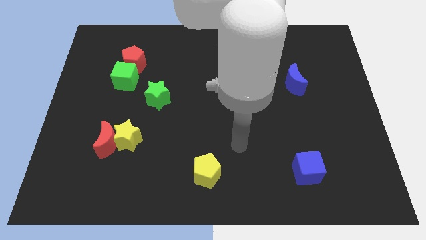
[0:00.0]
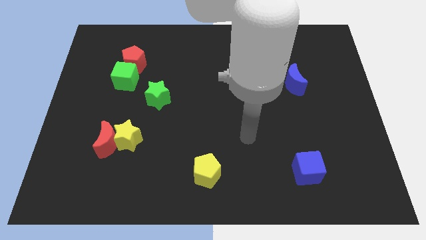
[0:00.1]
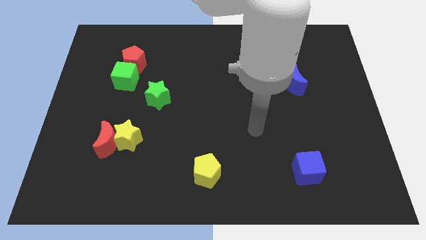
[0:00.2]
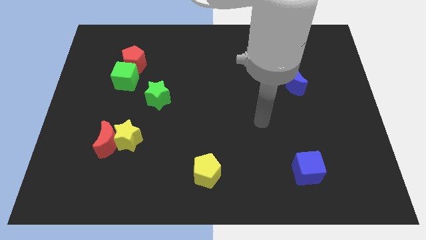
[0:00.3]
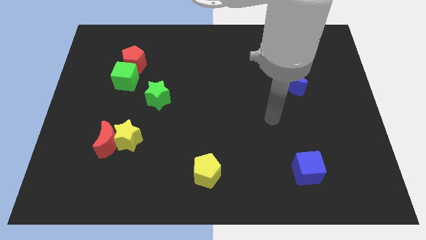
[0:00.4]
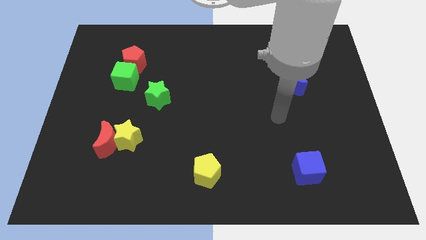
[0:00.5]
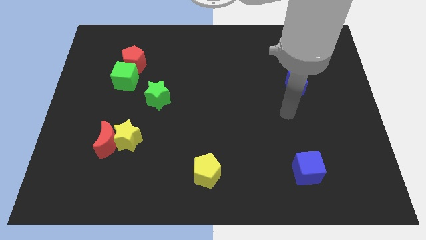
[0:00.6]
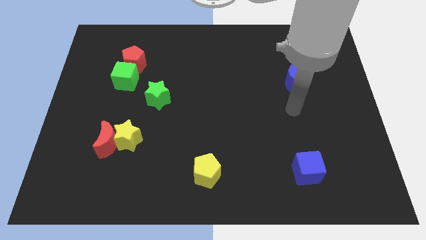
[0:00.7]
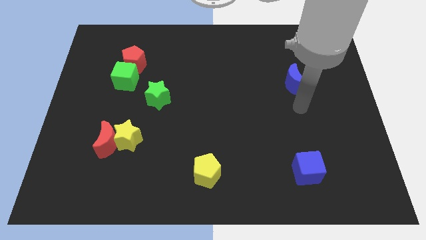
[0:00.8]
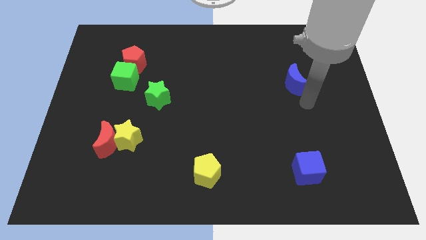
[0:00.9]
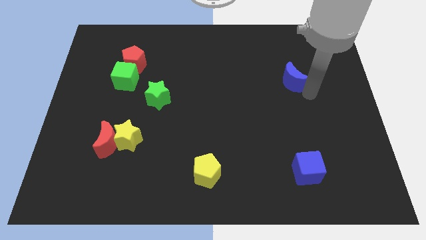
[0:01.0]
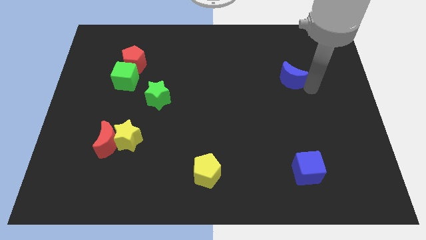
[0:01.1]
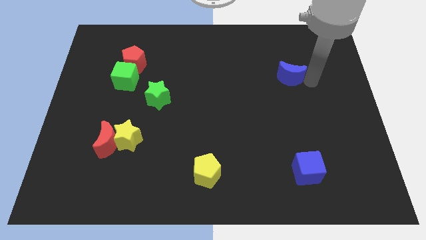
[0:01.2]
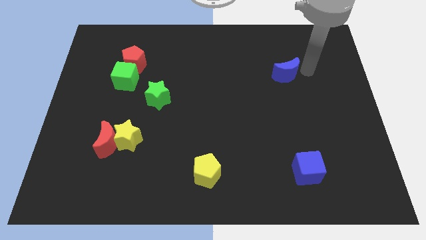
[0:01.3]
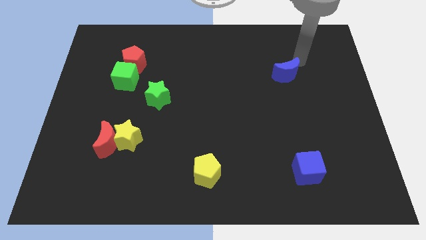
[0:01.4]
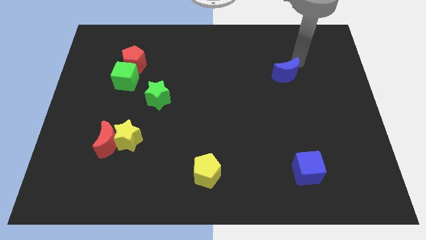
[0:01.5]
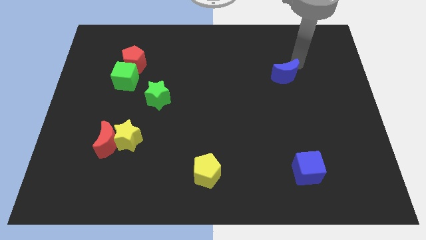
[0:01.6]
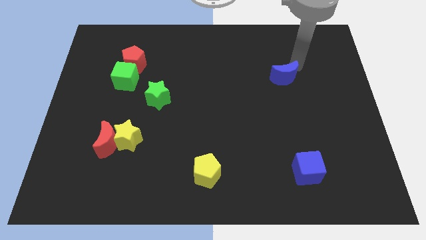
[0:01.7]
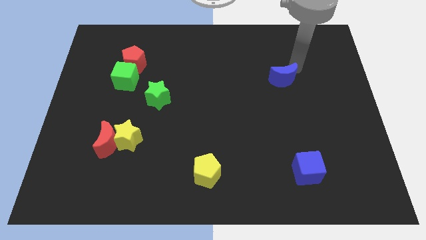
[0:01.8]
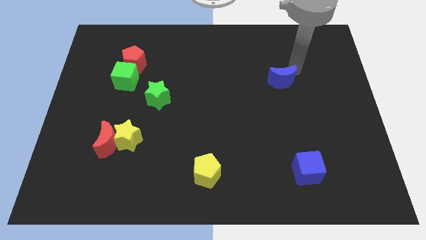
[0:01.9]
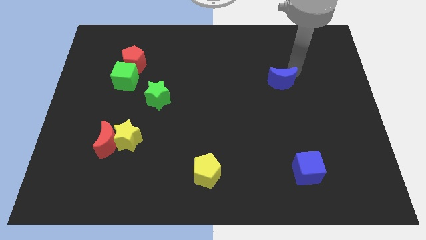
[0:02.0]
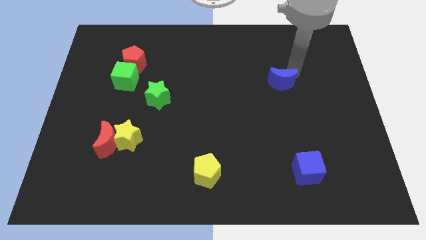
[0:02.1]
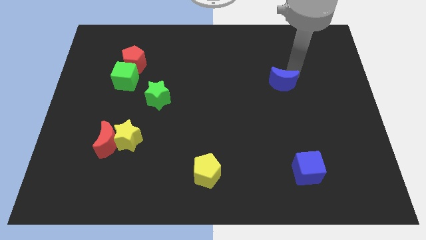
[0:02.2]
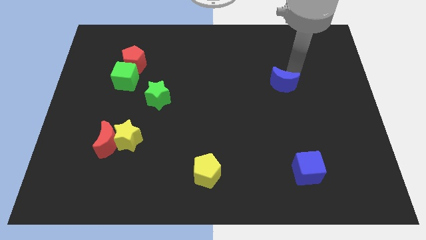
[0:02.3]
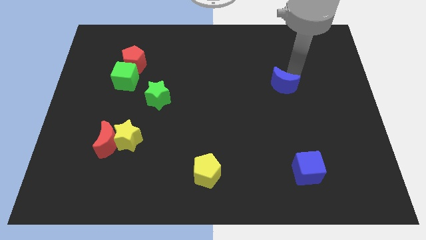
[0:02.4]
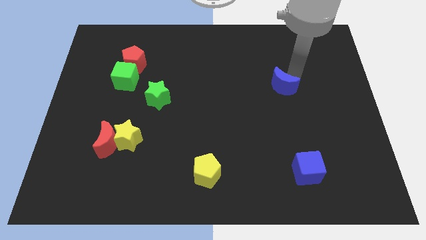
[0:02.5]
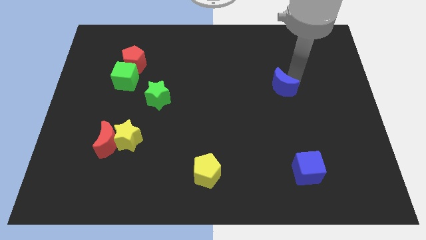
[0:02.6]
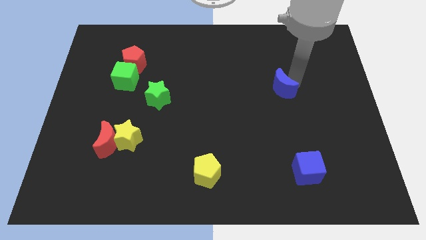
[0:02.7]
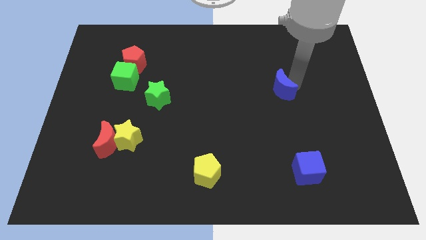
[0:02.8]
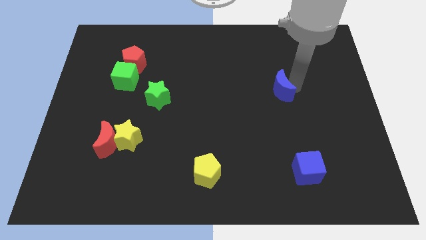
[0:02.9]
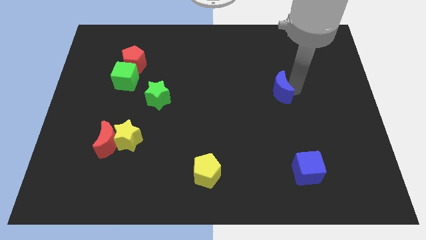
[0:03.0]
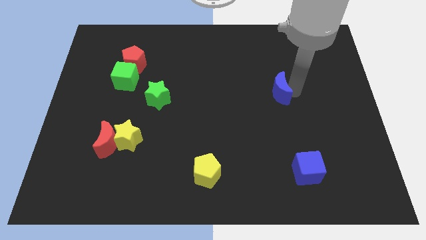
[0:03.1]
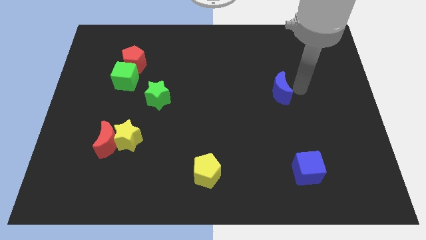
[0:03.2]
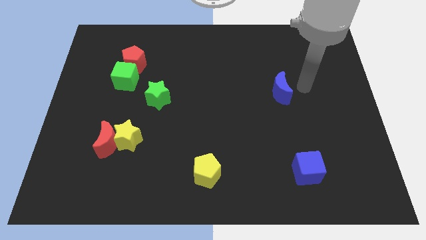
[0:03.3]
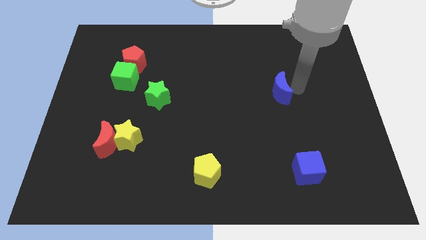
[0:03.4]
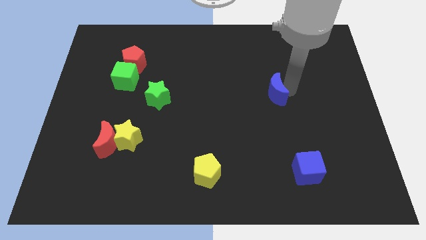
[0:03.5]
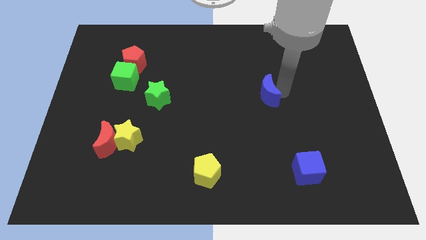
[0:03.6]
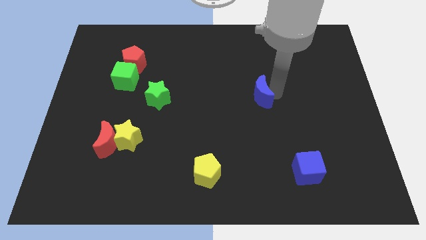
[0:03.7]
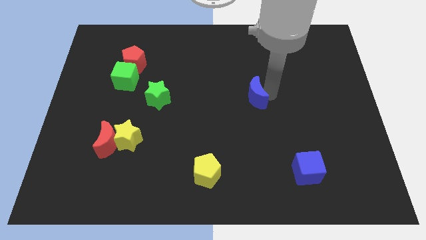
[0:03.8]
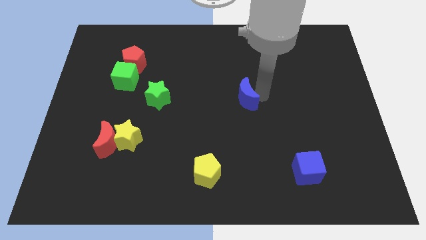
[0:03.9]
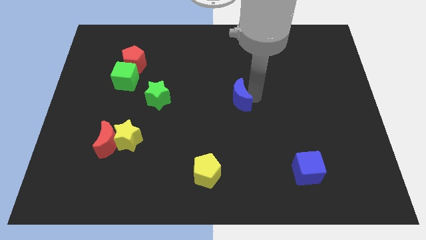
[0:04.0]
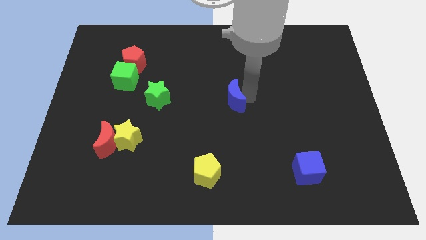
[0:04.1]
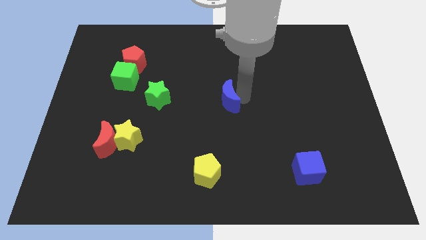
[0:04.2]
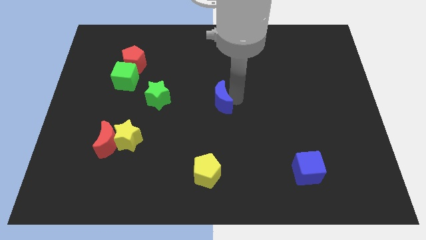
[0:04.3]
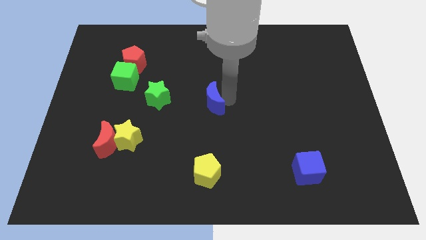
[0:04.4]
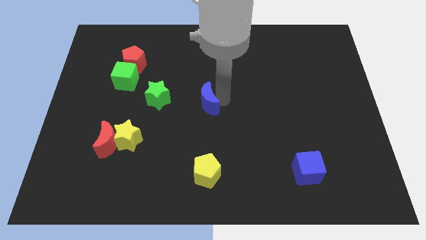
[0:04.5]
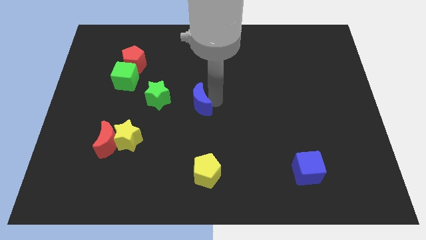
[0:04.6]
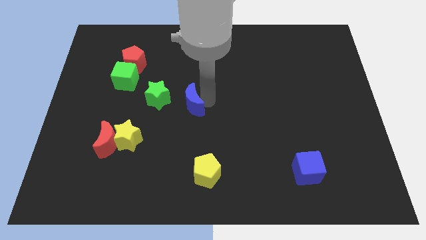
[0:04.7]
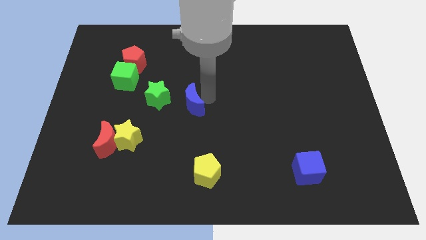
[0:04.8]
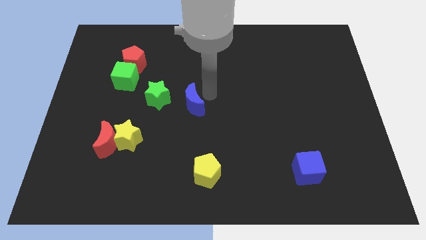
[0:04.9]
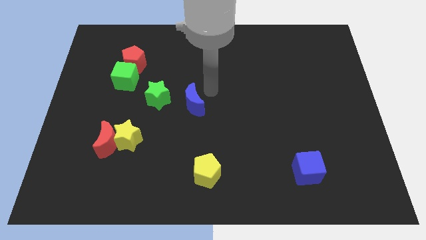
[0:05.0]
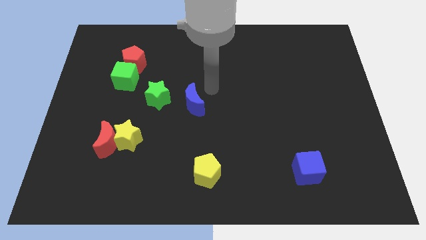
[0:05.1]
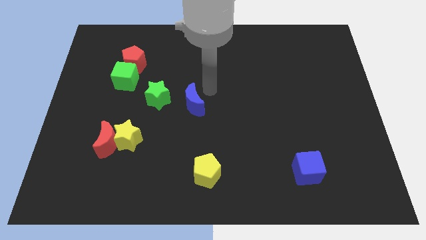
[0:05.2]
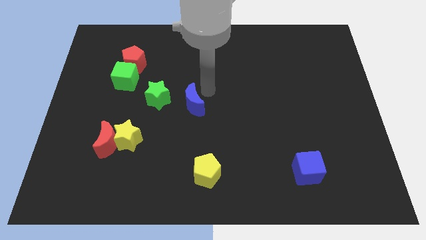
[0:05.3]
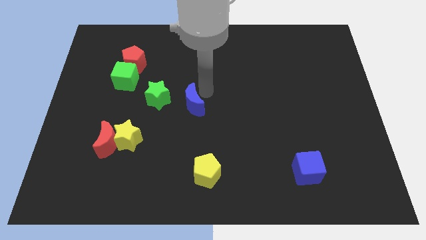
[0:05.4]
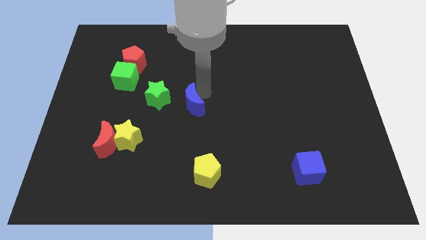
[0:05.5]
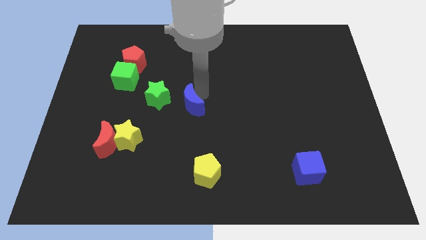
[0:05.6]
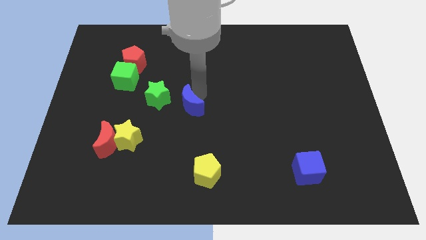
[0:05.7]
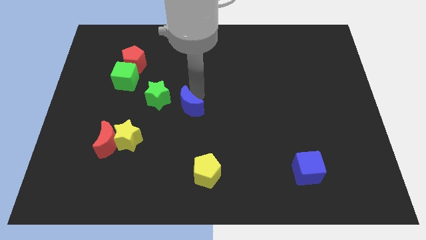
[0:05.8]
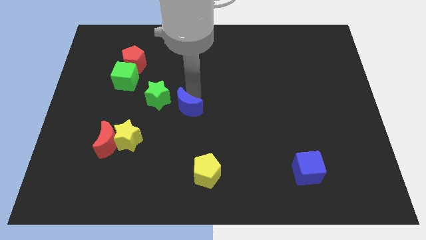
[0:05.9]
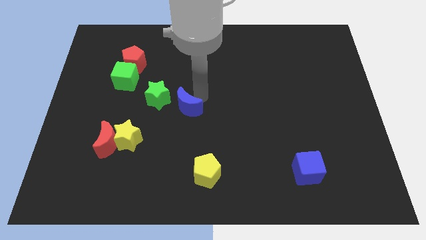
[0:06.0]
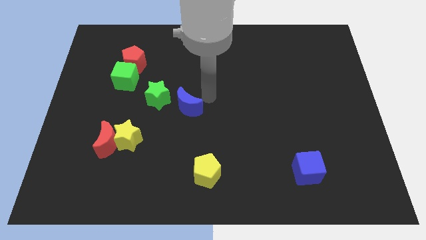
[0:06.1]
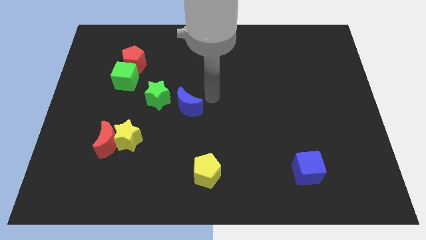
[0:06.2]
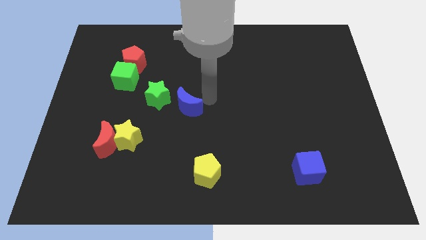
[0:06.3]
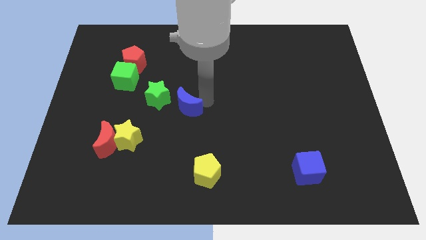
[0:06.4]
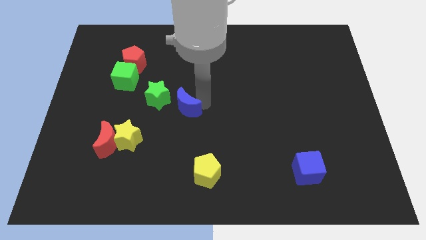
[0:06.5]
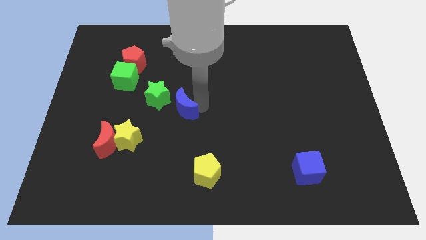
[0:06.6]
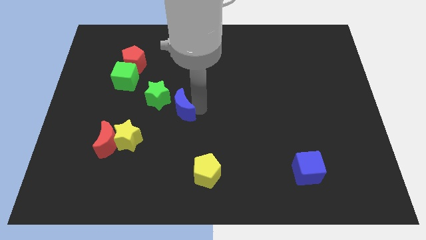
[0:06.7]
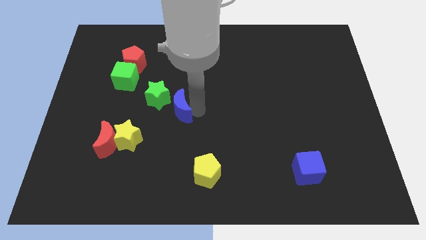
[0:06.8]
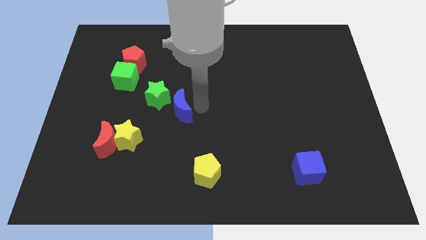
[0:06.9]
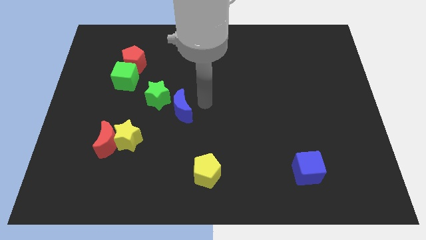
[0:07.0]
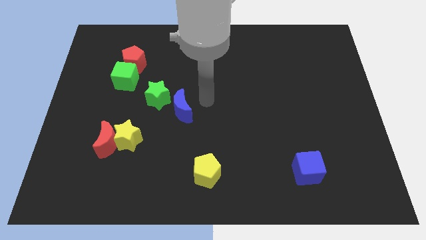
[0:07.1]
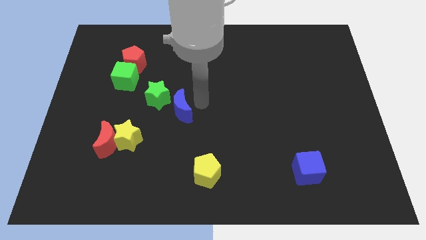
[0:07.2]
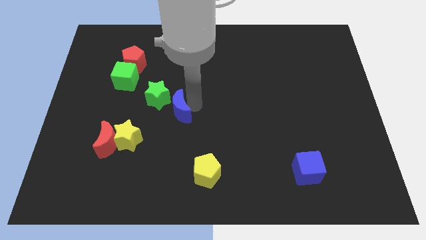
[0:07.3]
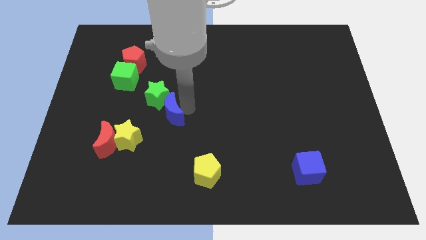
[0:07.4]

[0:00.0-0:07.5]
slide the blue moon to the top right side of the yellow star
